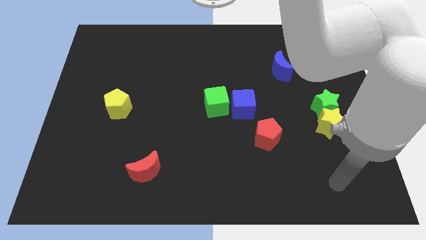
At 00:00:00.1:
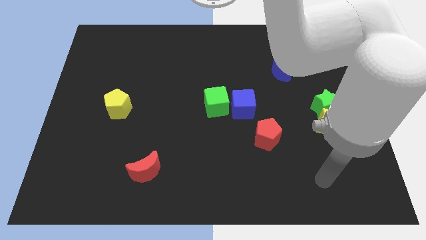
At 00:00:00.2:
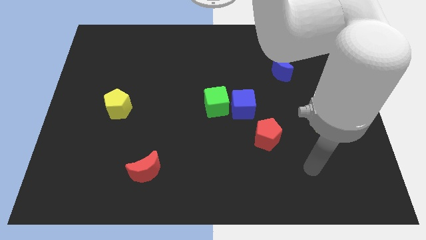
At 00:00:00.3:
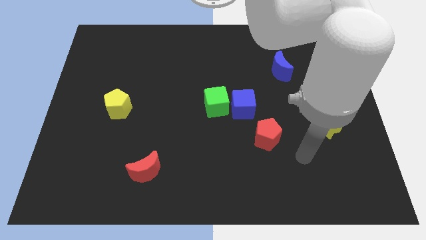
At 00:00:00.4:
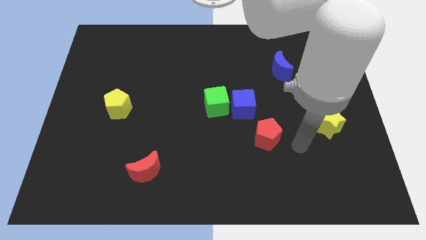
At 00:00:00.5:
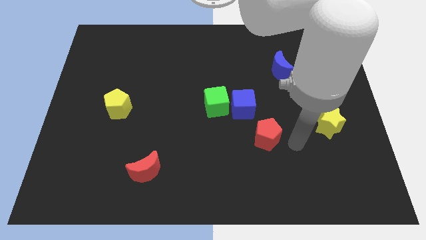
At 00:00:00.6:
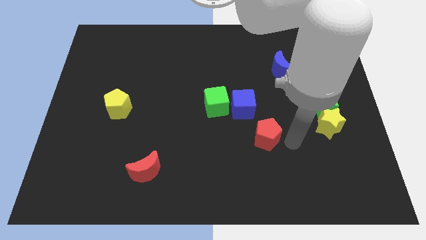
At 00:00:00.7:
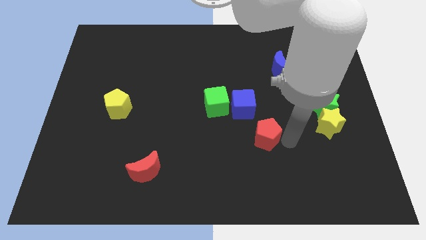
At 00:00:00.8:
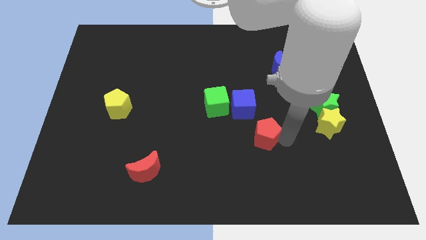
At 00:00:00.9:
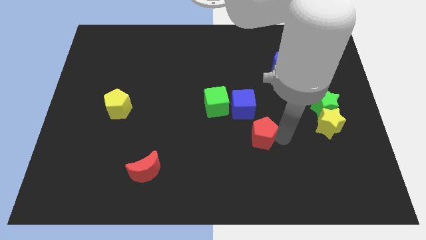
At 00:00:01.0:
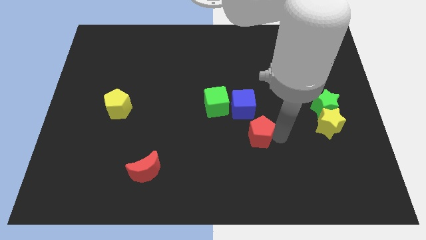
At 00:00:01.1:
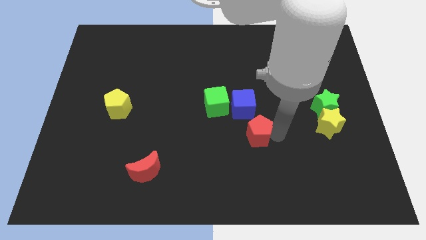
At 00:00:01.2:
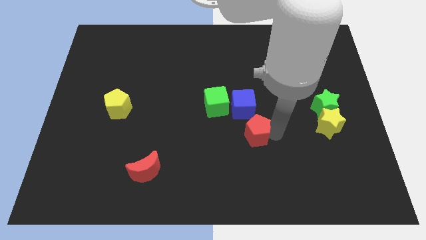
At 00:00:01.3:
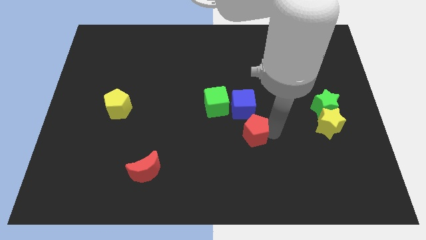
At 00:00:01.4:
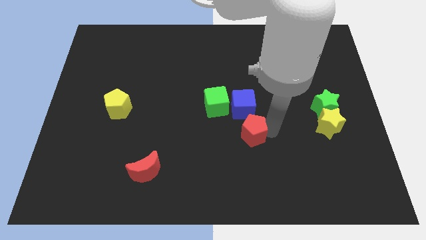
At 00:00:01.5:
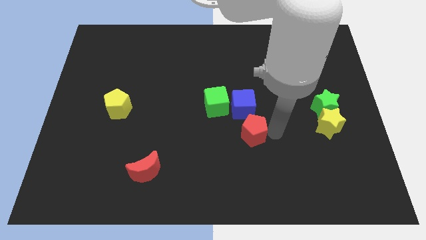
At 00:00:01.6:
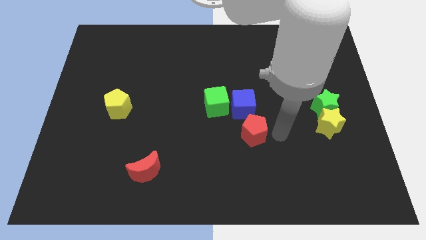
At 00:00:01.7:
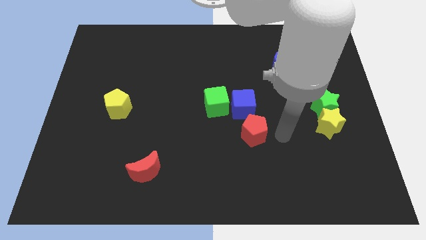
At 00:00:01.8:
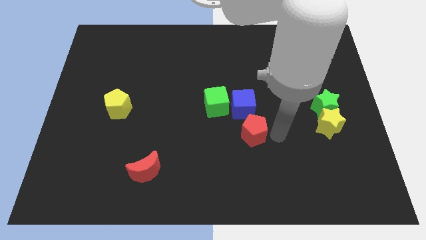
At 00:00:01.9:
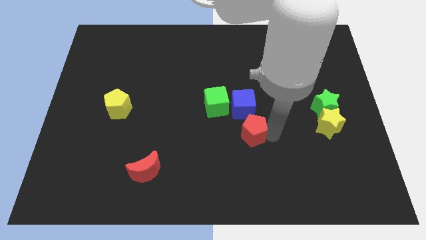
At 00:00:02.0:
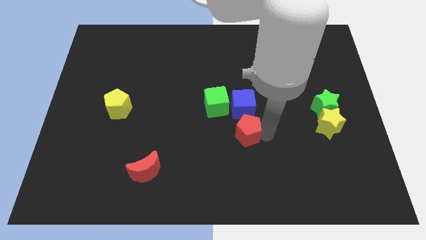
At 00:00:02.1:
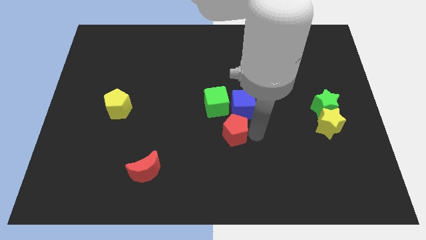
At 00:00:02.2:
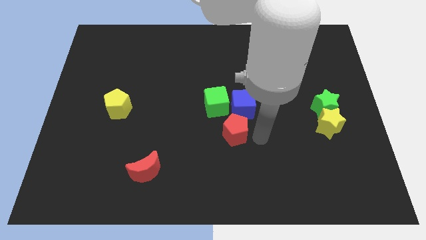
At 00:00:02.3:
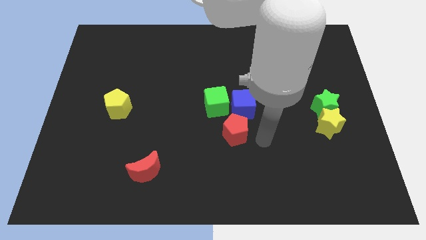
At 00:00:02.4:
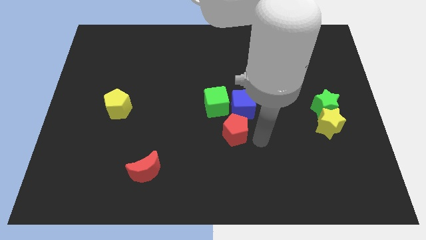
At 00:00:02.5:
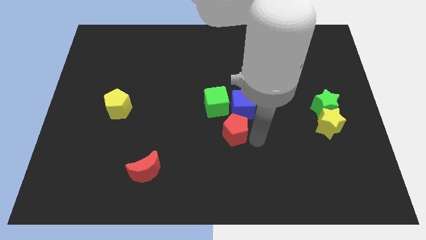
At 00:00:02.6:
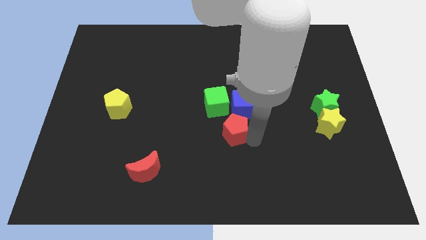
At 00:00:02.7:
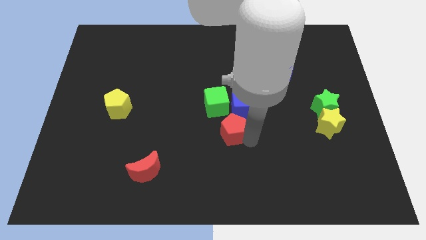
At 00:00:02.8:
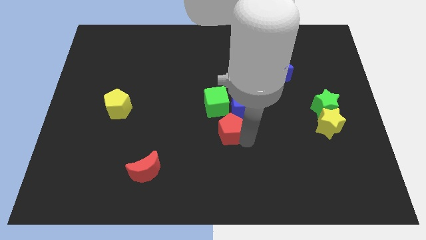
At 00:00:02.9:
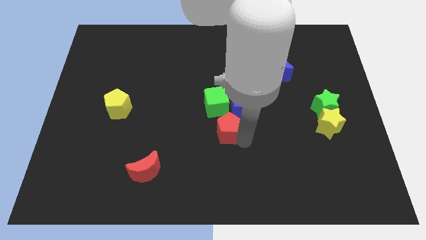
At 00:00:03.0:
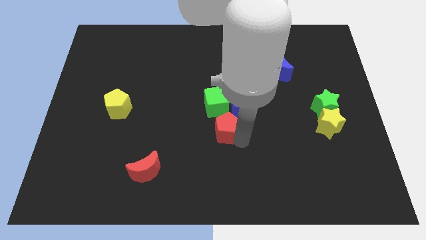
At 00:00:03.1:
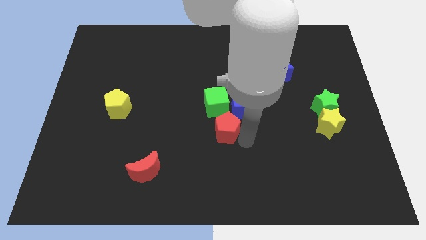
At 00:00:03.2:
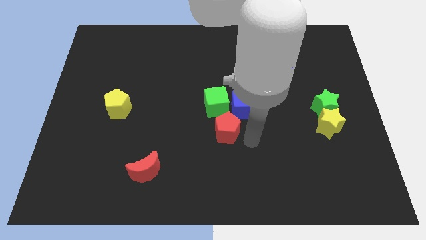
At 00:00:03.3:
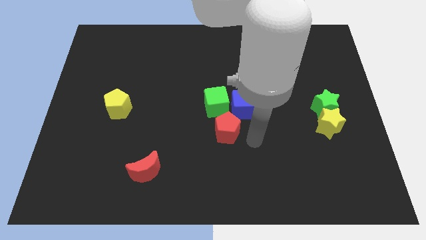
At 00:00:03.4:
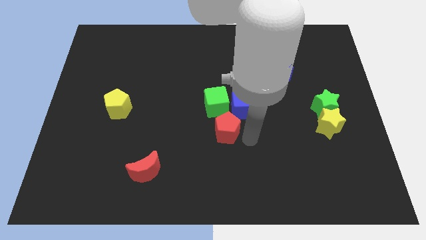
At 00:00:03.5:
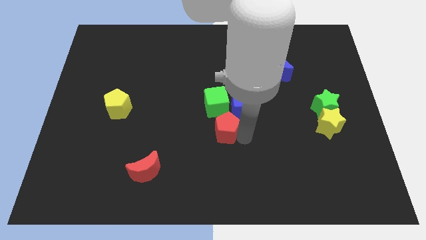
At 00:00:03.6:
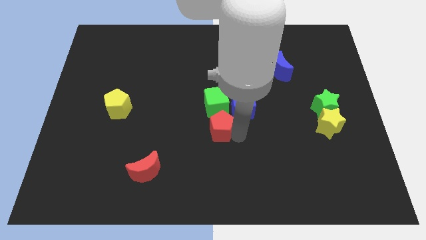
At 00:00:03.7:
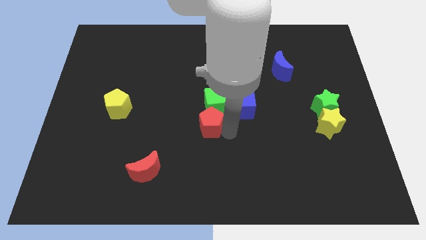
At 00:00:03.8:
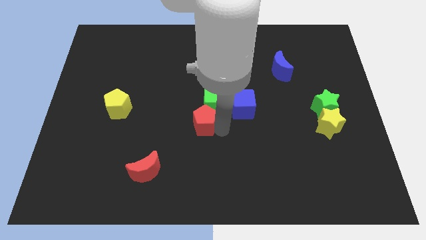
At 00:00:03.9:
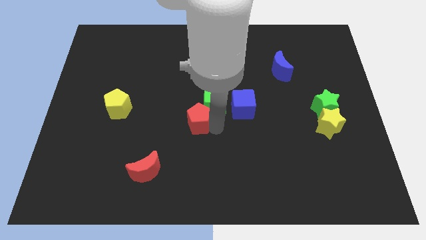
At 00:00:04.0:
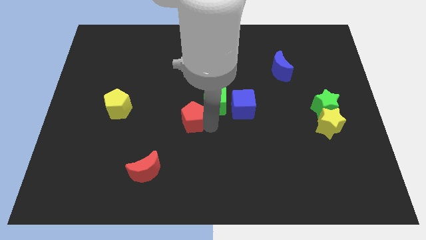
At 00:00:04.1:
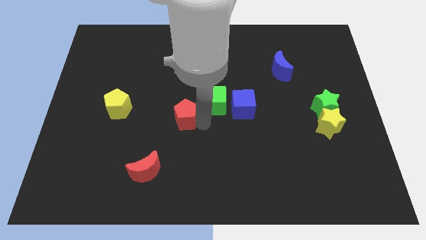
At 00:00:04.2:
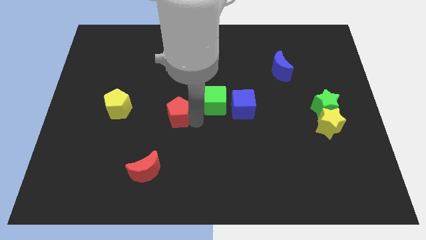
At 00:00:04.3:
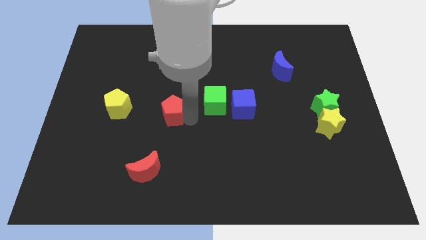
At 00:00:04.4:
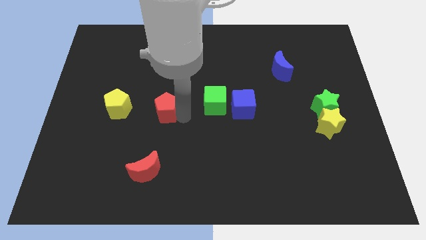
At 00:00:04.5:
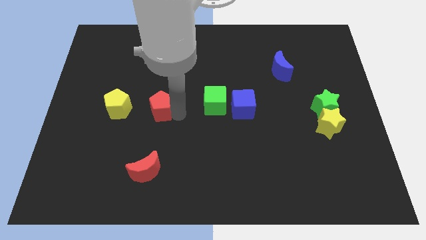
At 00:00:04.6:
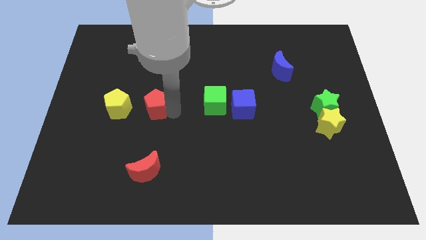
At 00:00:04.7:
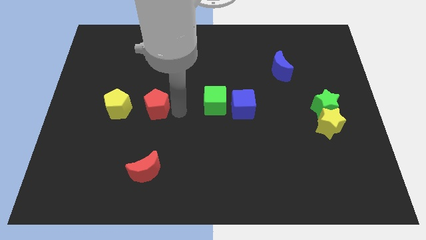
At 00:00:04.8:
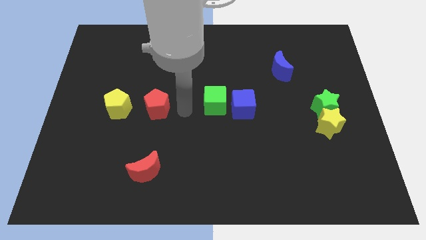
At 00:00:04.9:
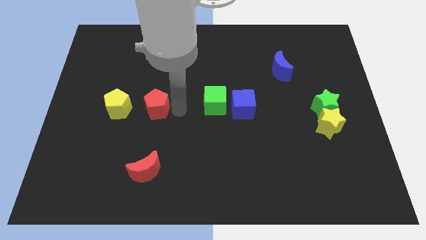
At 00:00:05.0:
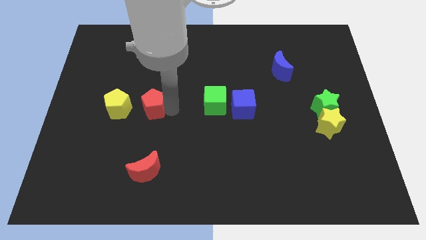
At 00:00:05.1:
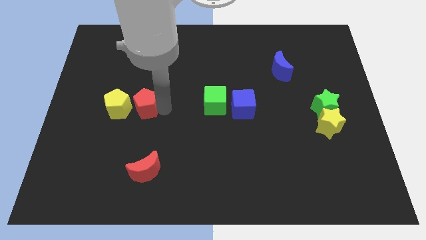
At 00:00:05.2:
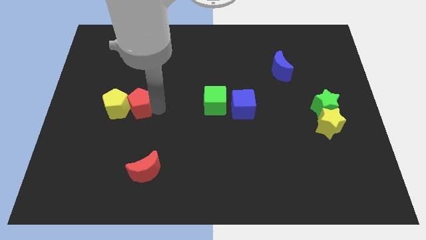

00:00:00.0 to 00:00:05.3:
push the red pentagon close to the yellow pentagon

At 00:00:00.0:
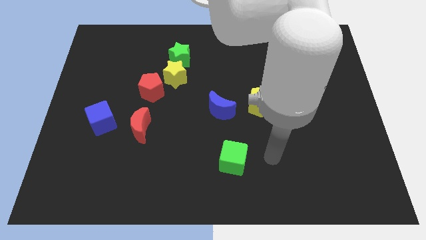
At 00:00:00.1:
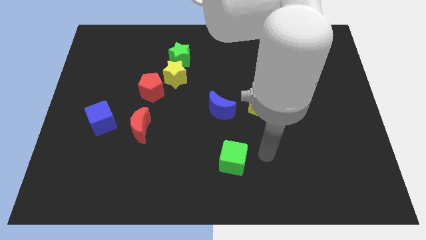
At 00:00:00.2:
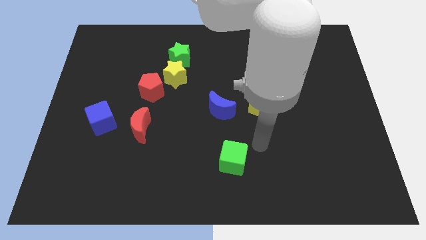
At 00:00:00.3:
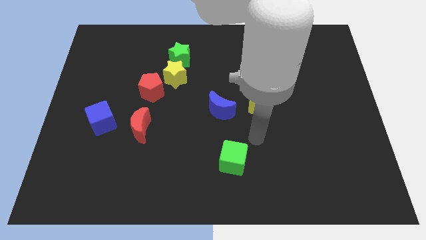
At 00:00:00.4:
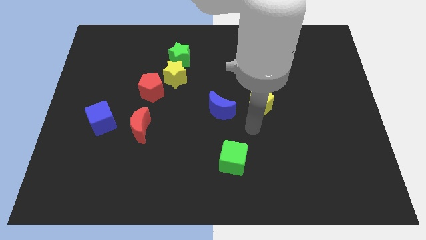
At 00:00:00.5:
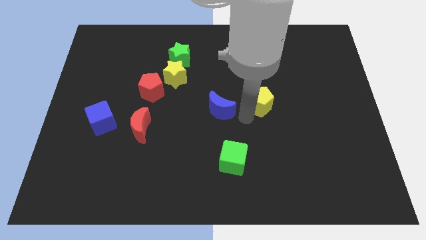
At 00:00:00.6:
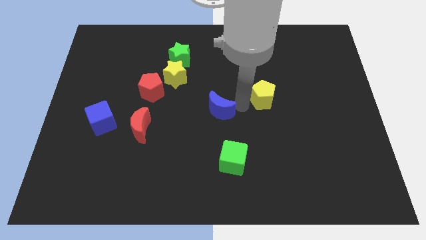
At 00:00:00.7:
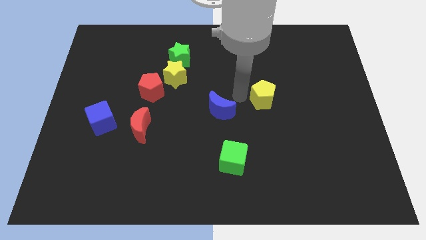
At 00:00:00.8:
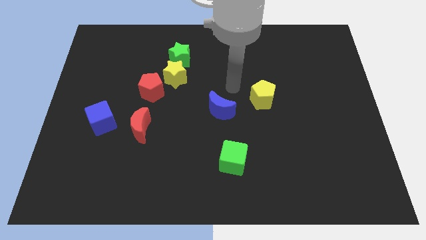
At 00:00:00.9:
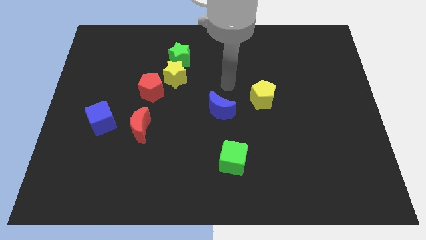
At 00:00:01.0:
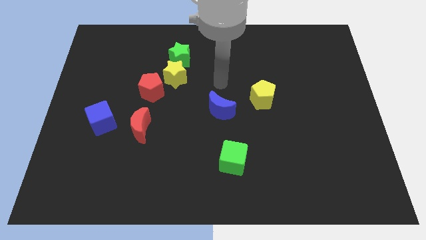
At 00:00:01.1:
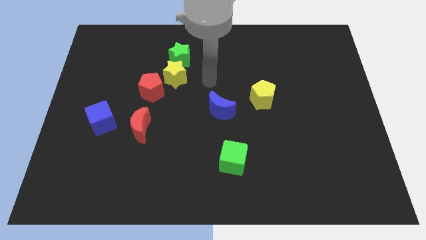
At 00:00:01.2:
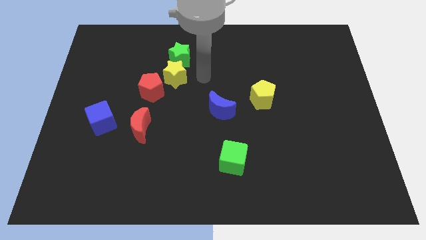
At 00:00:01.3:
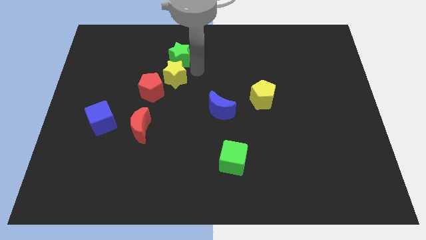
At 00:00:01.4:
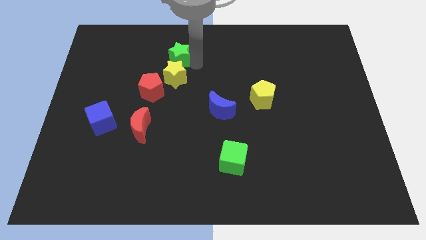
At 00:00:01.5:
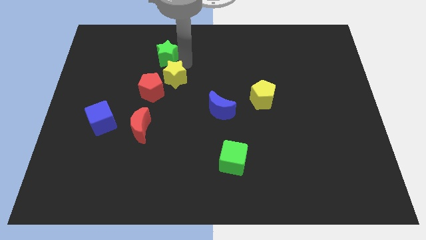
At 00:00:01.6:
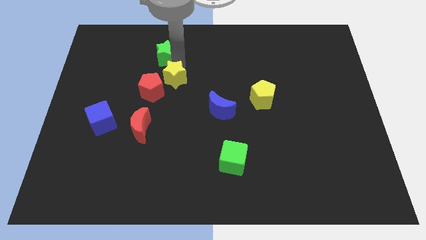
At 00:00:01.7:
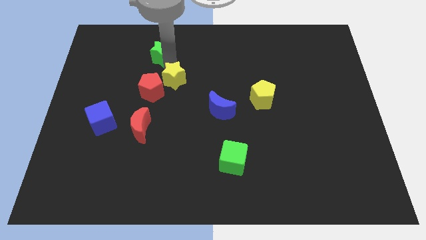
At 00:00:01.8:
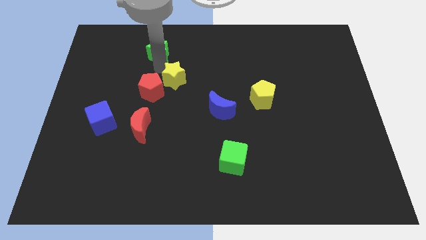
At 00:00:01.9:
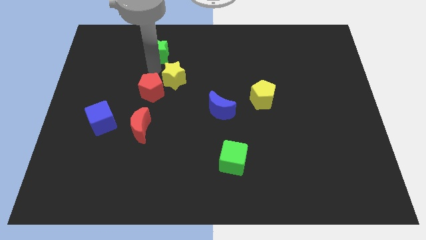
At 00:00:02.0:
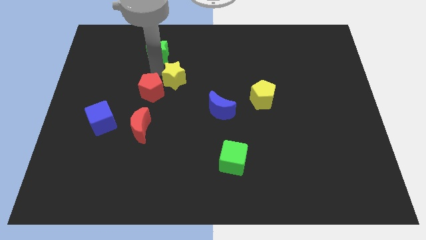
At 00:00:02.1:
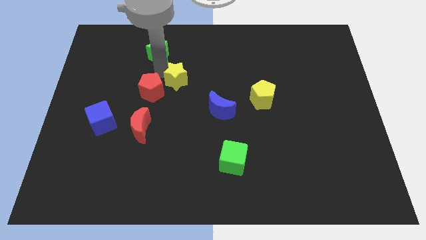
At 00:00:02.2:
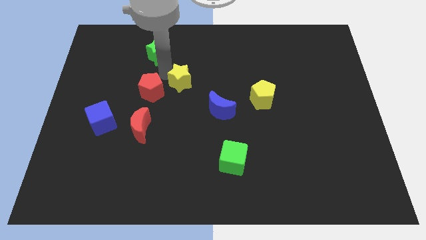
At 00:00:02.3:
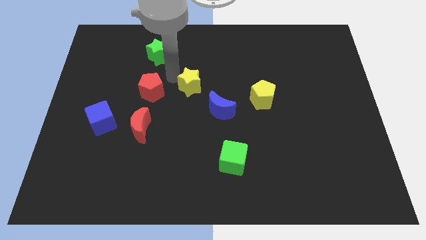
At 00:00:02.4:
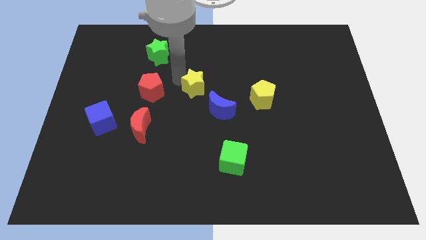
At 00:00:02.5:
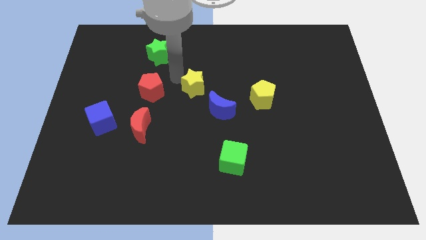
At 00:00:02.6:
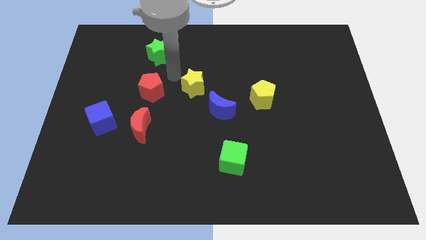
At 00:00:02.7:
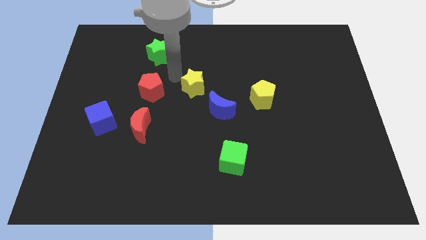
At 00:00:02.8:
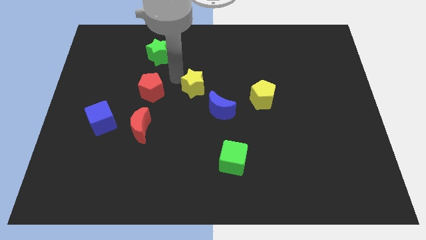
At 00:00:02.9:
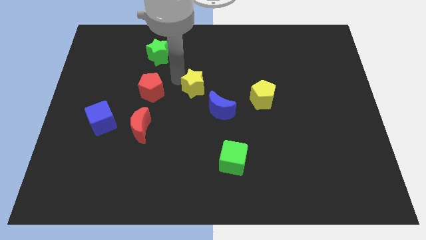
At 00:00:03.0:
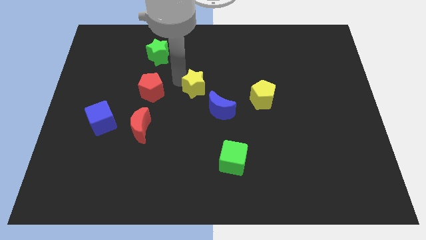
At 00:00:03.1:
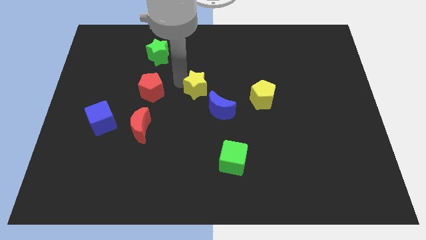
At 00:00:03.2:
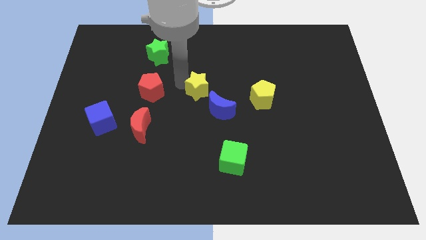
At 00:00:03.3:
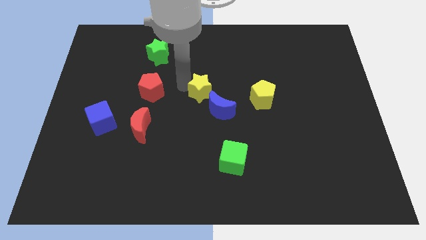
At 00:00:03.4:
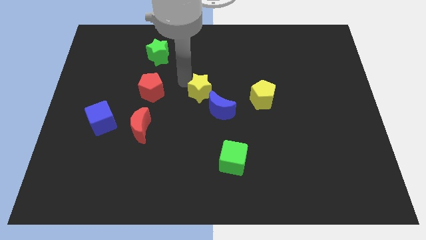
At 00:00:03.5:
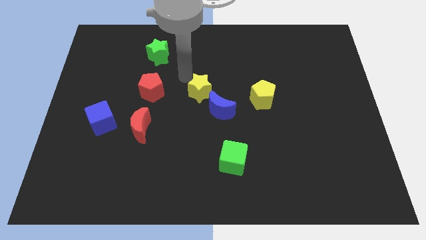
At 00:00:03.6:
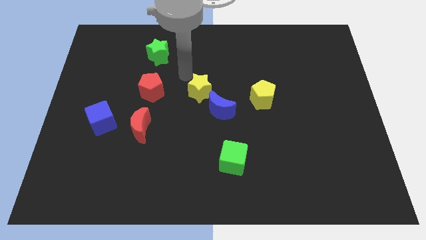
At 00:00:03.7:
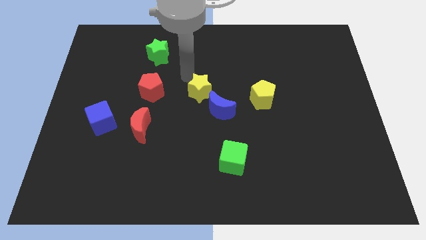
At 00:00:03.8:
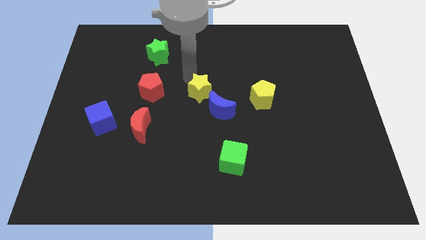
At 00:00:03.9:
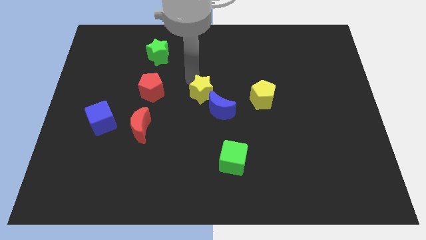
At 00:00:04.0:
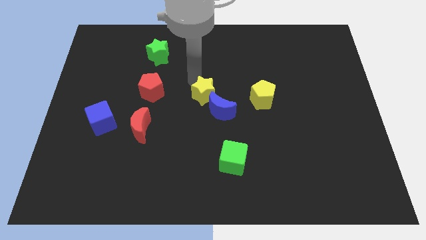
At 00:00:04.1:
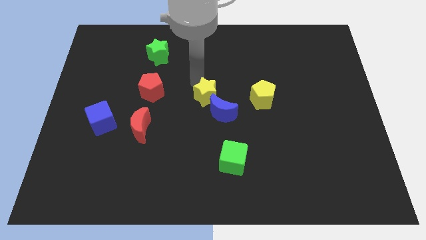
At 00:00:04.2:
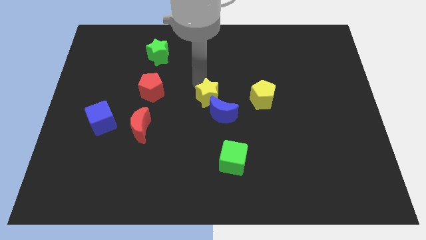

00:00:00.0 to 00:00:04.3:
slide the yellow star next to the blue moon
